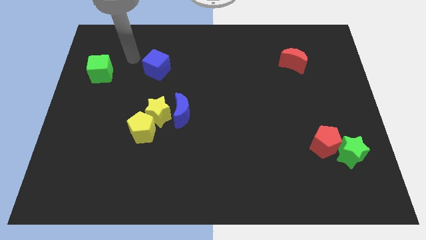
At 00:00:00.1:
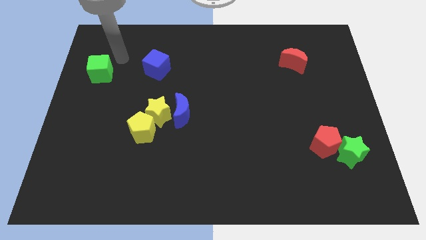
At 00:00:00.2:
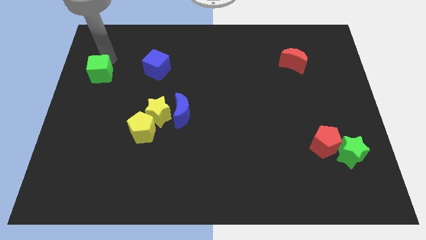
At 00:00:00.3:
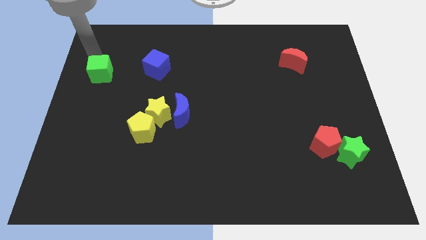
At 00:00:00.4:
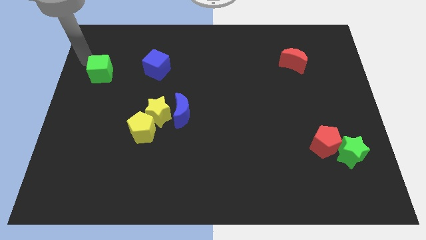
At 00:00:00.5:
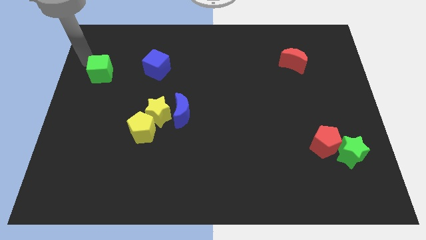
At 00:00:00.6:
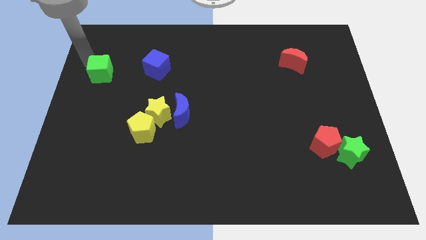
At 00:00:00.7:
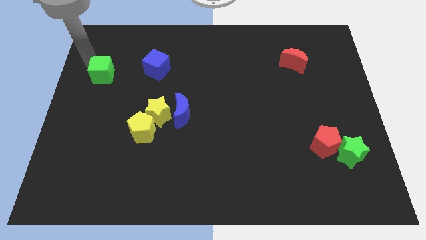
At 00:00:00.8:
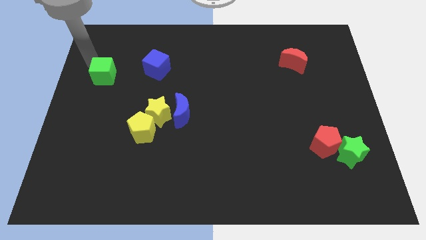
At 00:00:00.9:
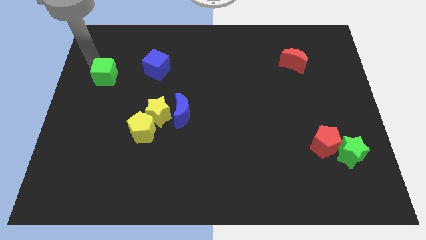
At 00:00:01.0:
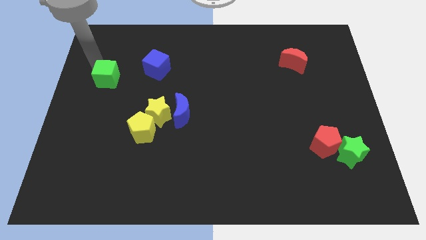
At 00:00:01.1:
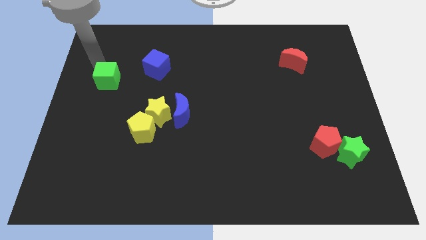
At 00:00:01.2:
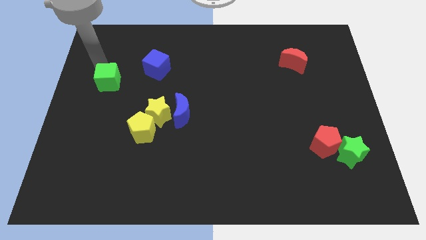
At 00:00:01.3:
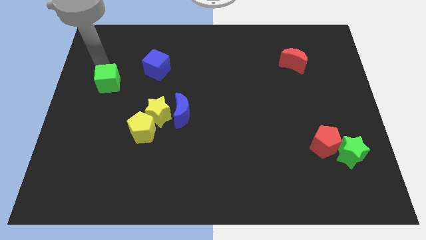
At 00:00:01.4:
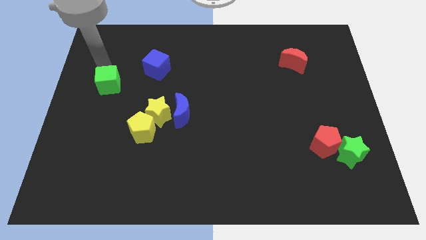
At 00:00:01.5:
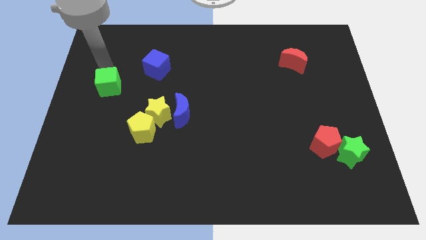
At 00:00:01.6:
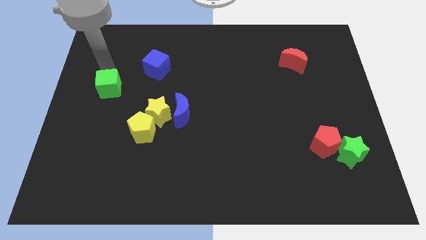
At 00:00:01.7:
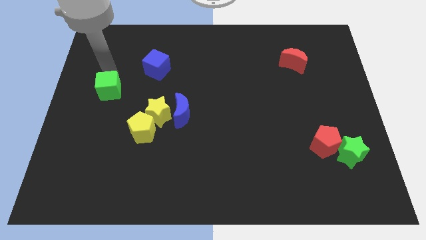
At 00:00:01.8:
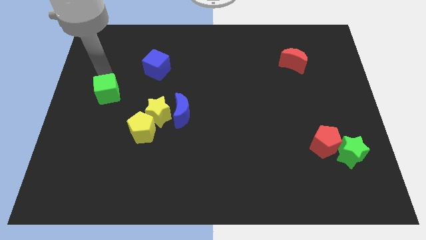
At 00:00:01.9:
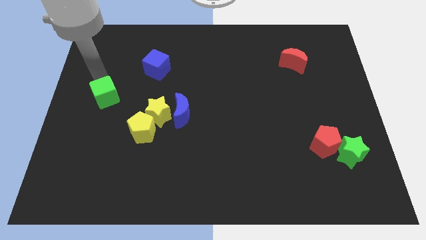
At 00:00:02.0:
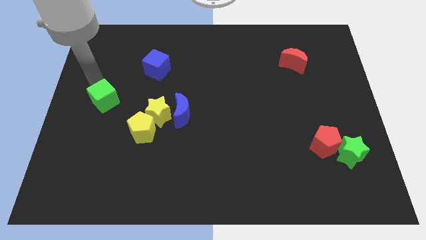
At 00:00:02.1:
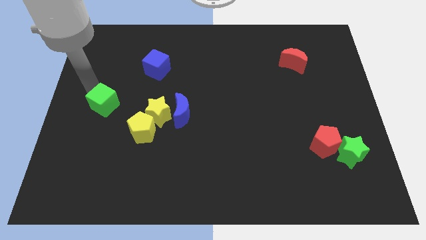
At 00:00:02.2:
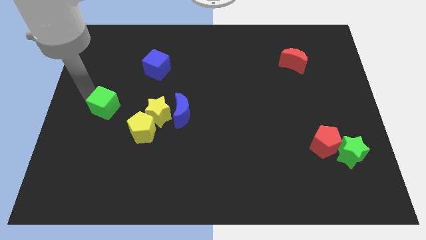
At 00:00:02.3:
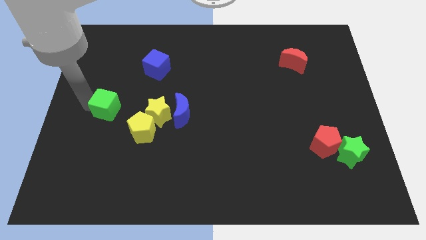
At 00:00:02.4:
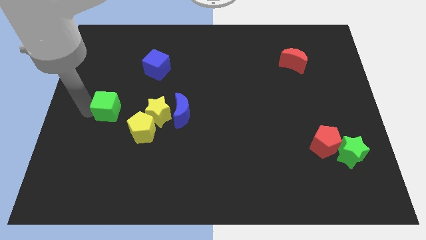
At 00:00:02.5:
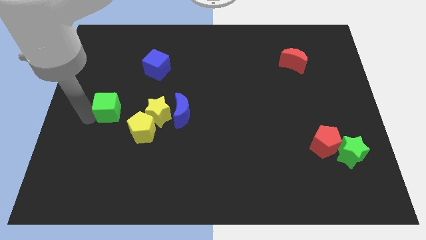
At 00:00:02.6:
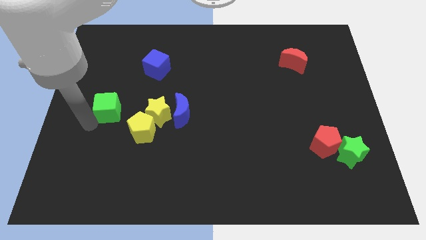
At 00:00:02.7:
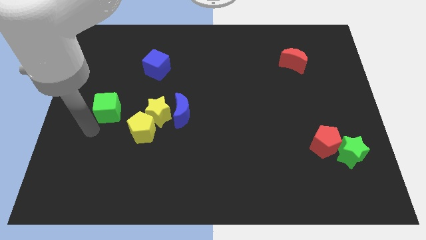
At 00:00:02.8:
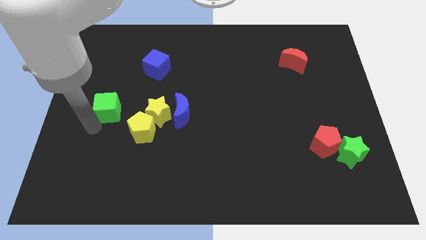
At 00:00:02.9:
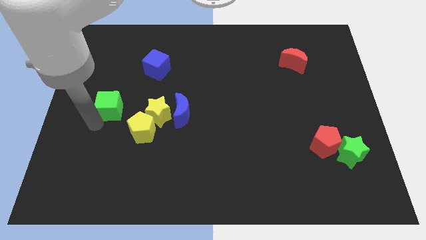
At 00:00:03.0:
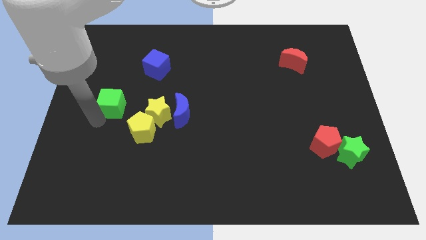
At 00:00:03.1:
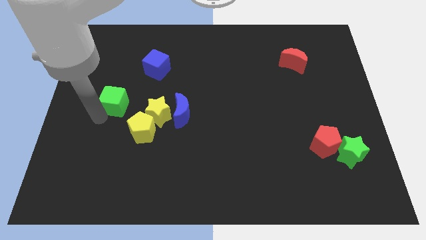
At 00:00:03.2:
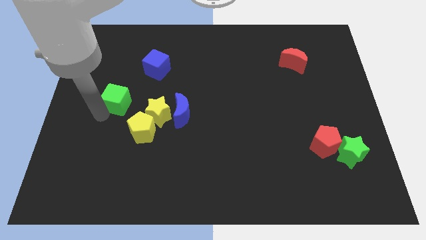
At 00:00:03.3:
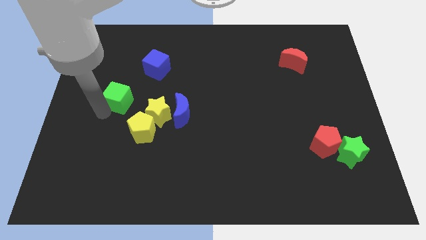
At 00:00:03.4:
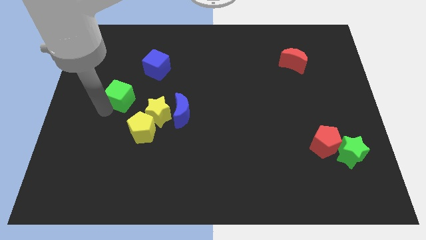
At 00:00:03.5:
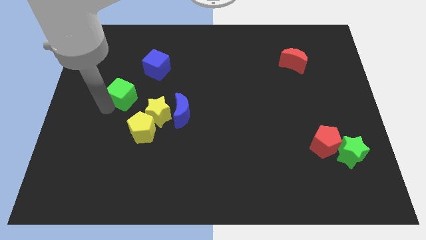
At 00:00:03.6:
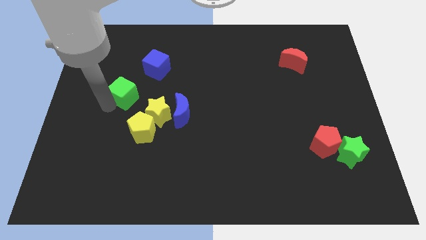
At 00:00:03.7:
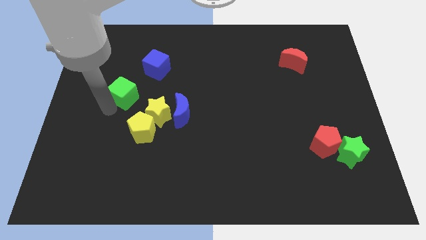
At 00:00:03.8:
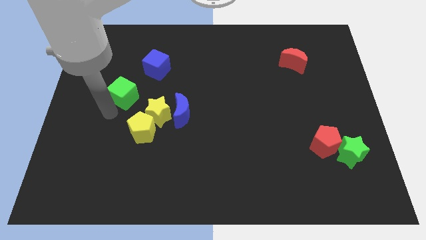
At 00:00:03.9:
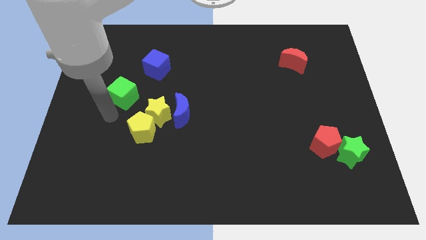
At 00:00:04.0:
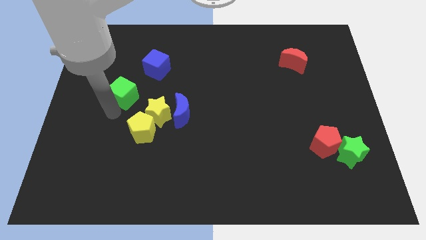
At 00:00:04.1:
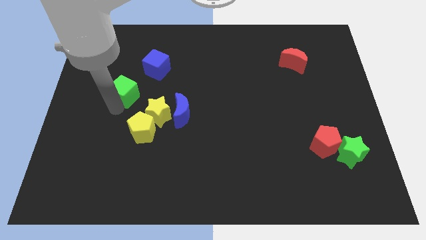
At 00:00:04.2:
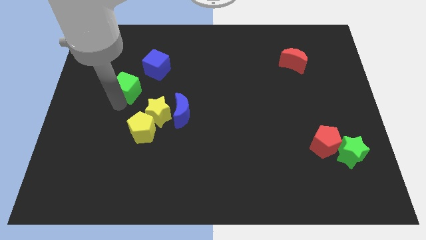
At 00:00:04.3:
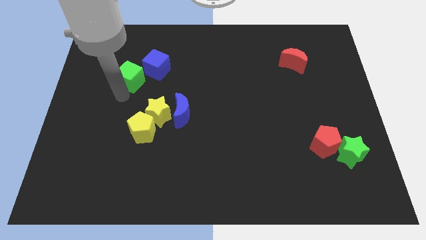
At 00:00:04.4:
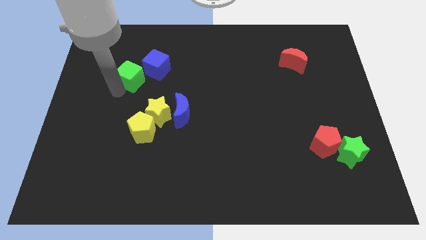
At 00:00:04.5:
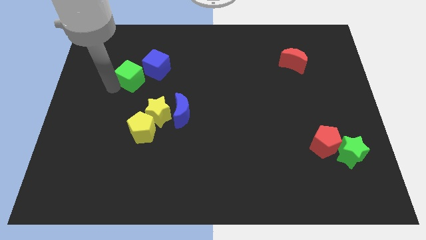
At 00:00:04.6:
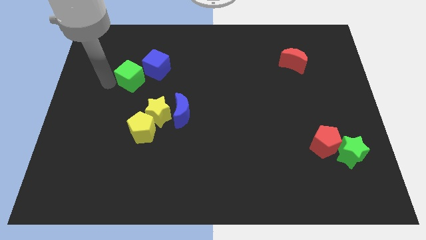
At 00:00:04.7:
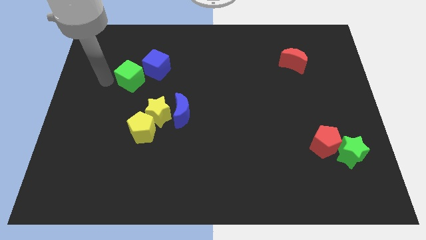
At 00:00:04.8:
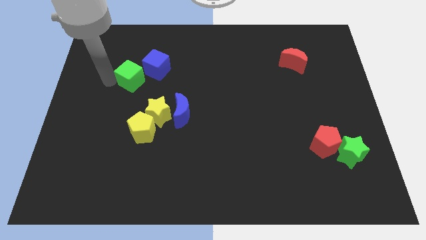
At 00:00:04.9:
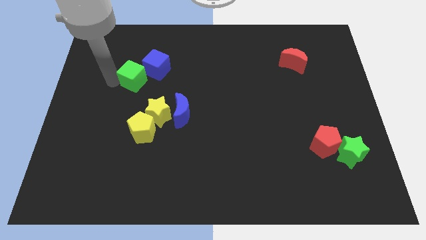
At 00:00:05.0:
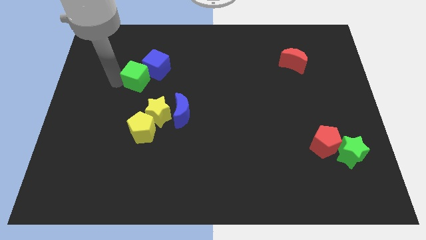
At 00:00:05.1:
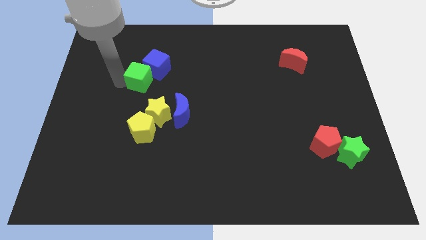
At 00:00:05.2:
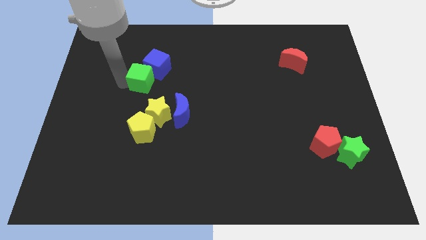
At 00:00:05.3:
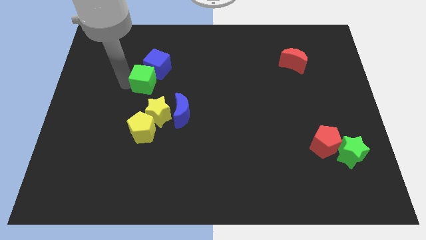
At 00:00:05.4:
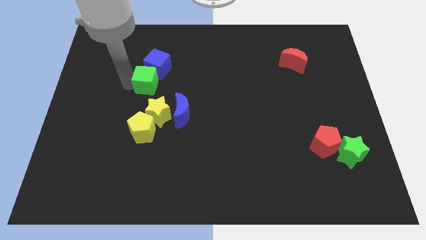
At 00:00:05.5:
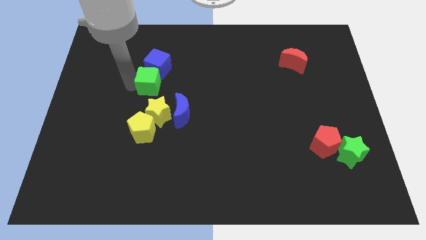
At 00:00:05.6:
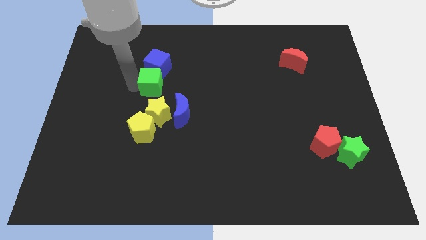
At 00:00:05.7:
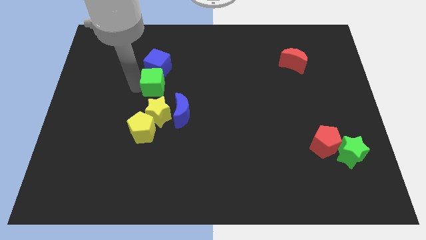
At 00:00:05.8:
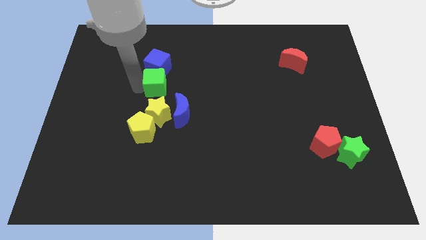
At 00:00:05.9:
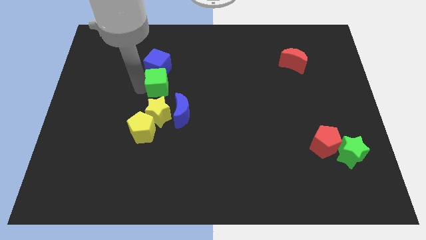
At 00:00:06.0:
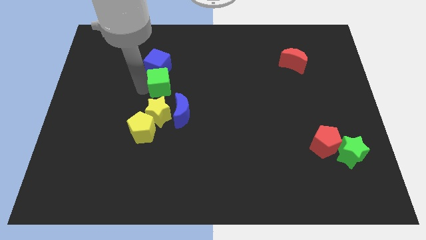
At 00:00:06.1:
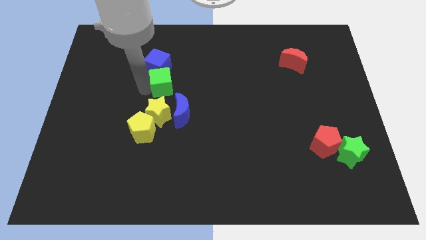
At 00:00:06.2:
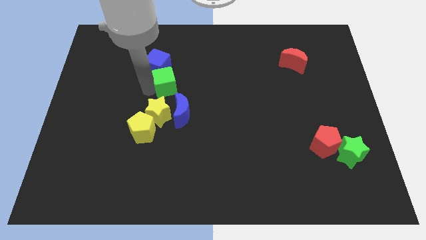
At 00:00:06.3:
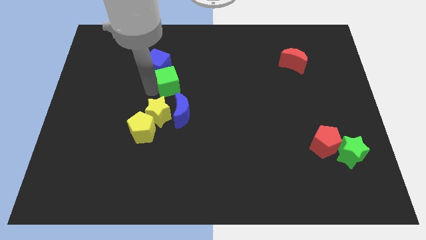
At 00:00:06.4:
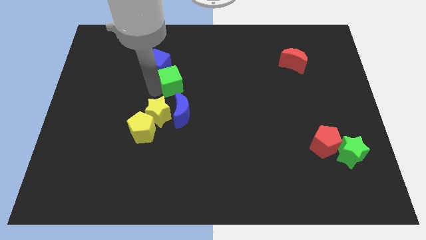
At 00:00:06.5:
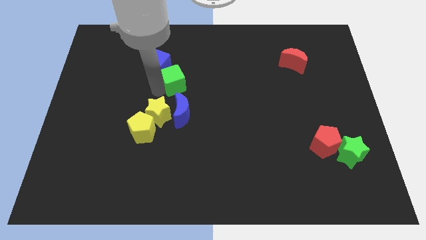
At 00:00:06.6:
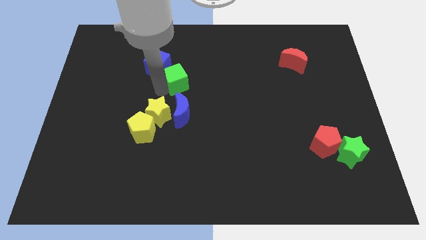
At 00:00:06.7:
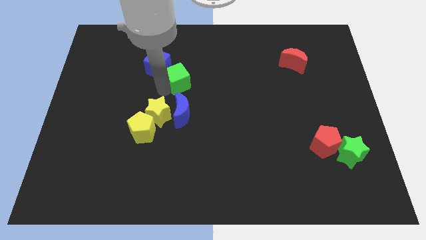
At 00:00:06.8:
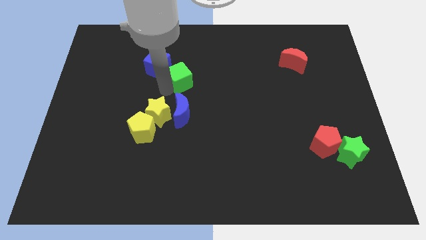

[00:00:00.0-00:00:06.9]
slide the green cube to the right

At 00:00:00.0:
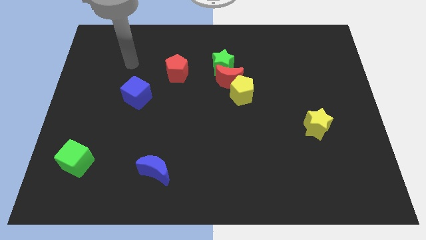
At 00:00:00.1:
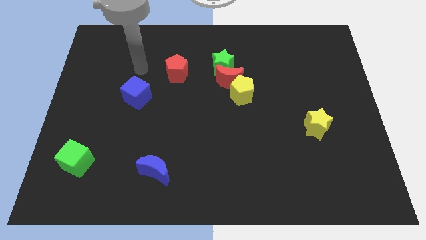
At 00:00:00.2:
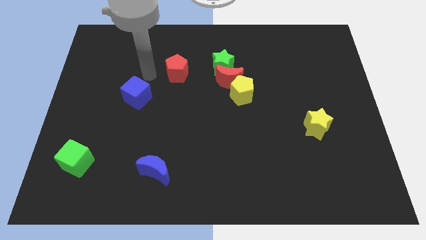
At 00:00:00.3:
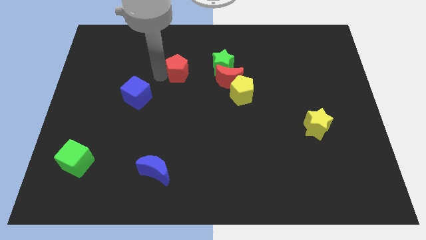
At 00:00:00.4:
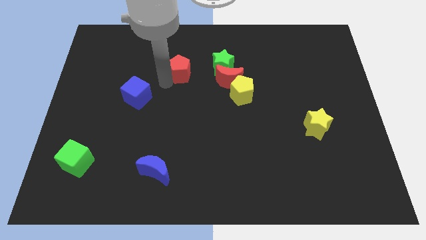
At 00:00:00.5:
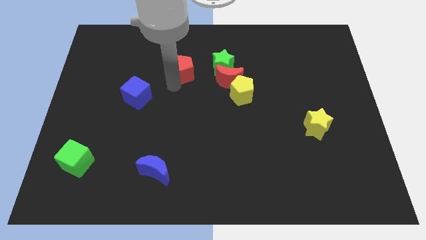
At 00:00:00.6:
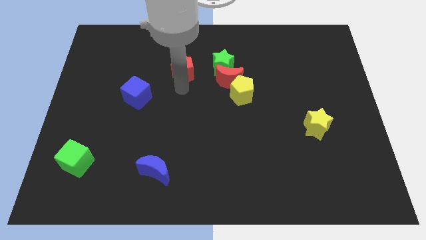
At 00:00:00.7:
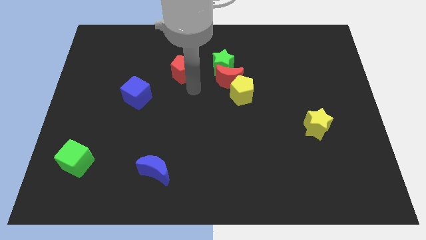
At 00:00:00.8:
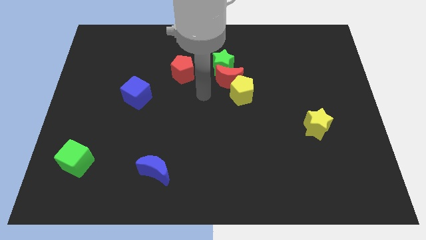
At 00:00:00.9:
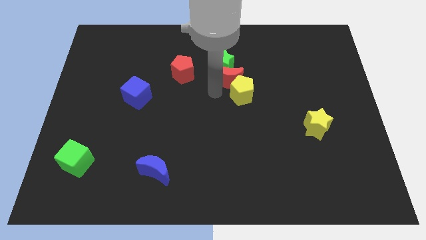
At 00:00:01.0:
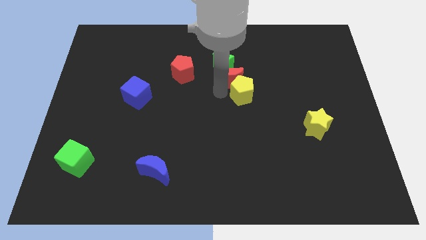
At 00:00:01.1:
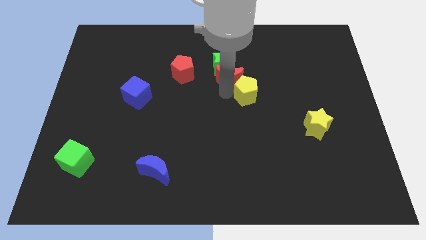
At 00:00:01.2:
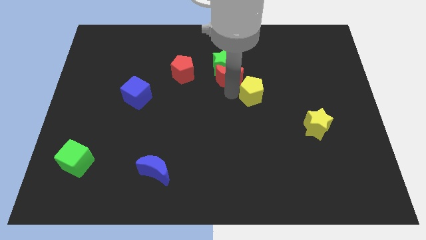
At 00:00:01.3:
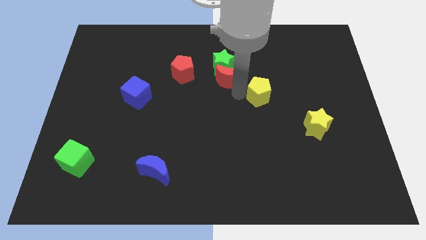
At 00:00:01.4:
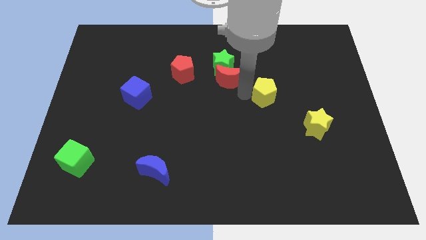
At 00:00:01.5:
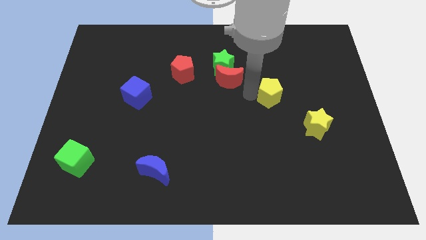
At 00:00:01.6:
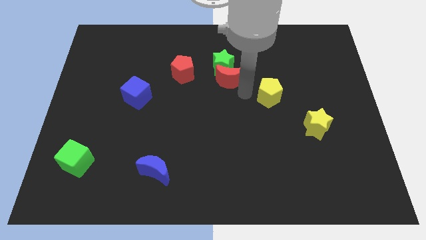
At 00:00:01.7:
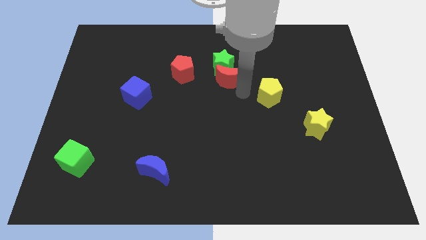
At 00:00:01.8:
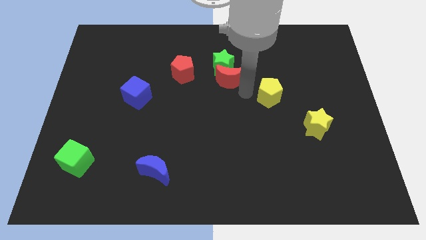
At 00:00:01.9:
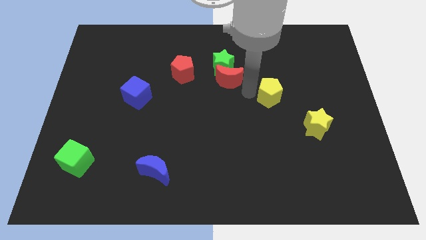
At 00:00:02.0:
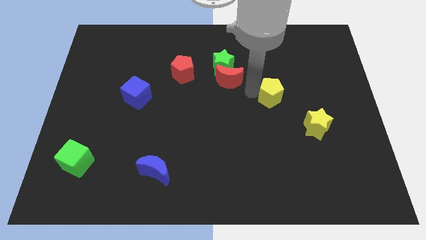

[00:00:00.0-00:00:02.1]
move the yellow pentagon slightly right
